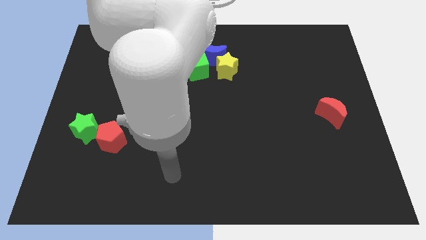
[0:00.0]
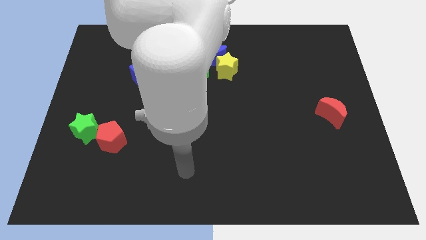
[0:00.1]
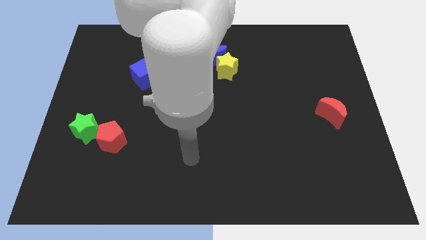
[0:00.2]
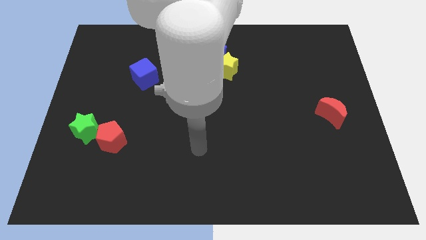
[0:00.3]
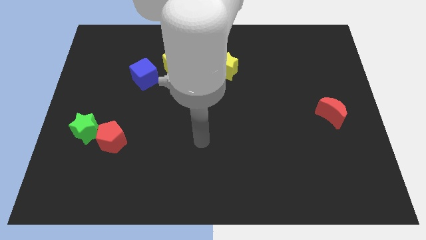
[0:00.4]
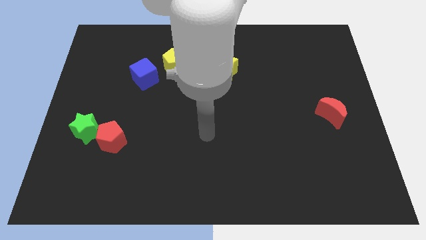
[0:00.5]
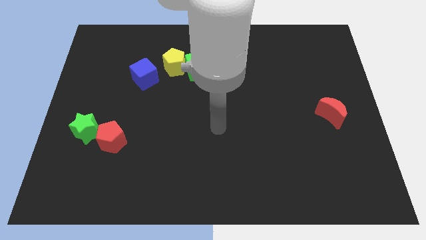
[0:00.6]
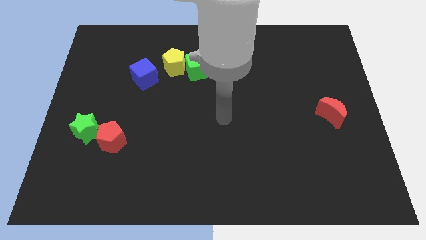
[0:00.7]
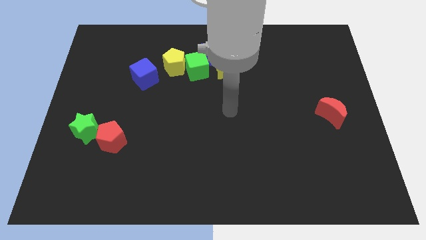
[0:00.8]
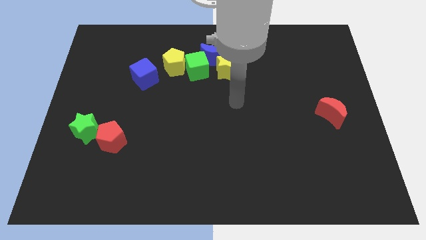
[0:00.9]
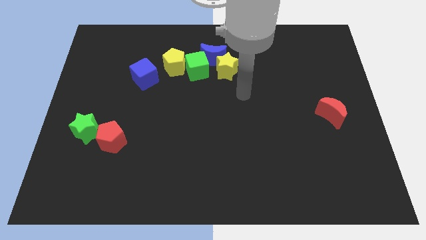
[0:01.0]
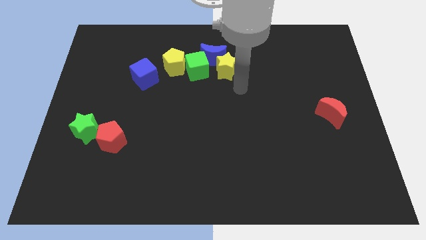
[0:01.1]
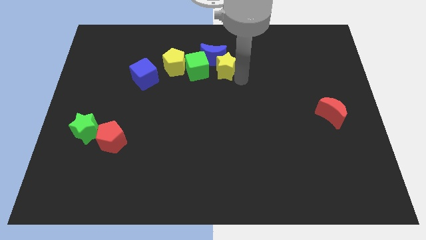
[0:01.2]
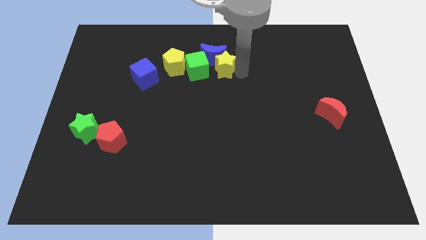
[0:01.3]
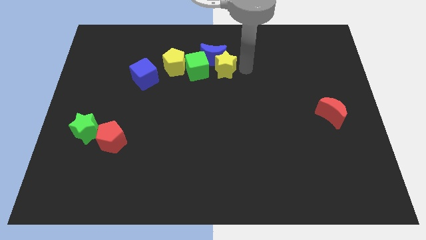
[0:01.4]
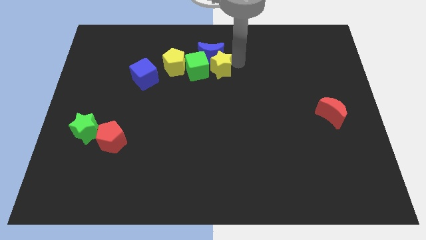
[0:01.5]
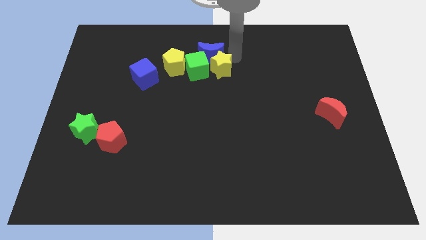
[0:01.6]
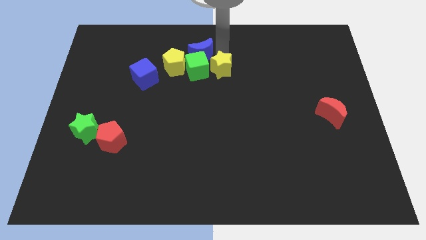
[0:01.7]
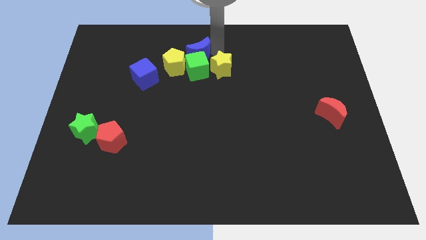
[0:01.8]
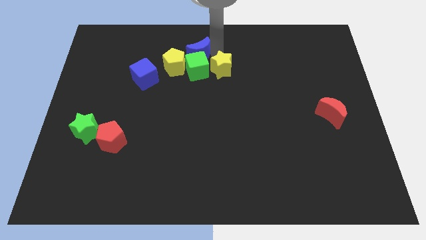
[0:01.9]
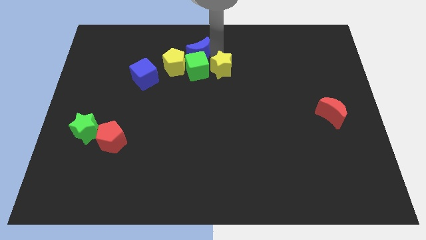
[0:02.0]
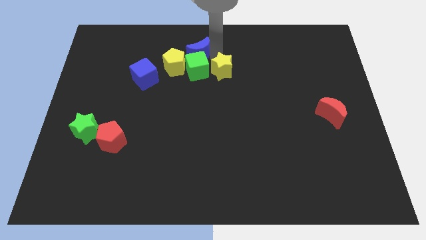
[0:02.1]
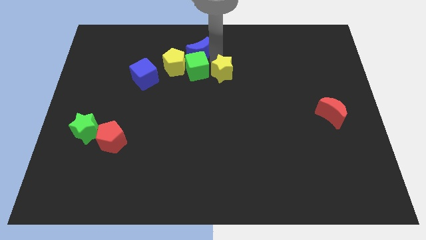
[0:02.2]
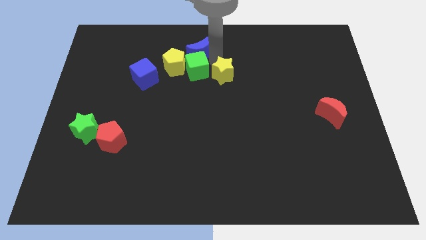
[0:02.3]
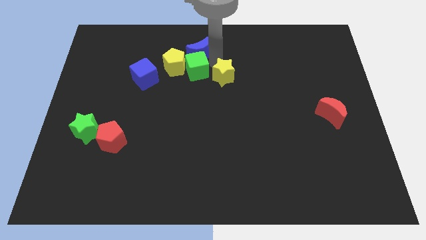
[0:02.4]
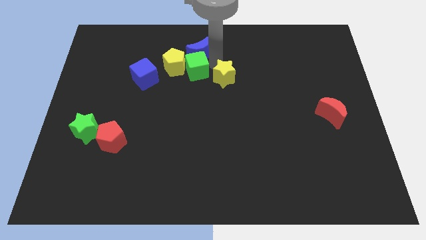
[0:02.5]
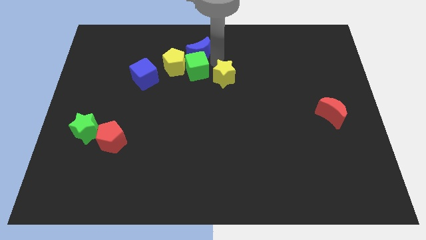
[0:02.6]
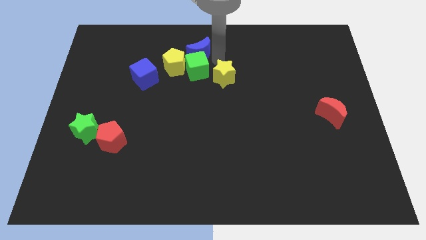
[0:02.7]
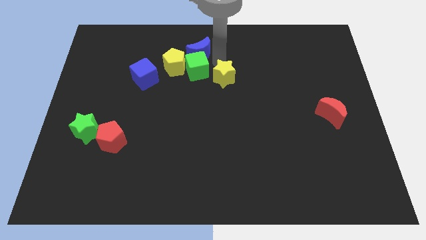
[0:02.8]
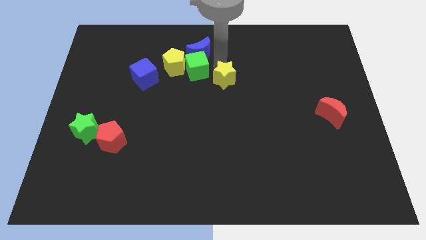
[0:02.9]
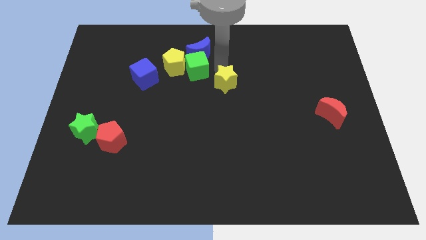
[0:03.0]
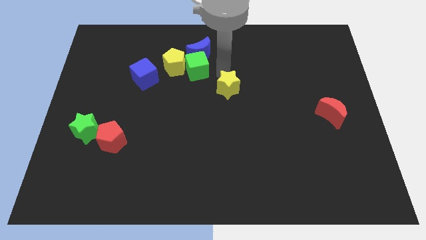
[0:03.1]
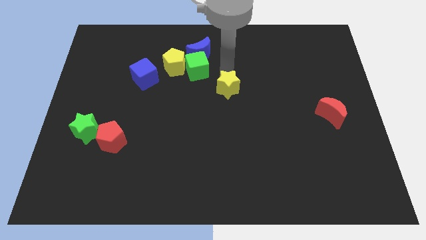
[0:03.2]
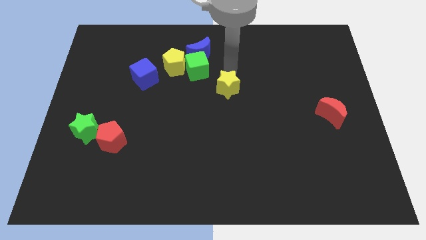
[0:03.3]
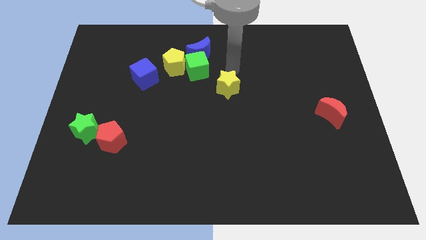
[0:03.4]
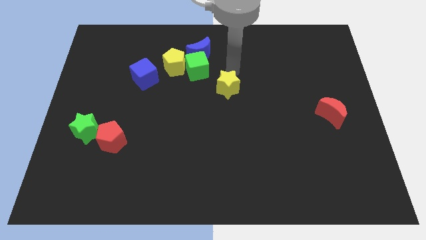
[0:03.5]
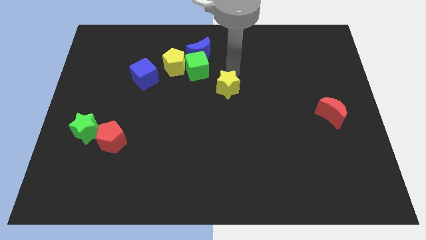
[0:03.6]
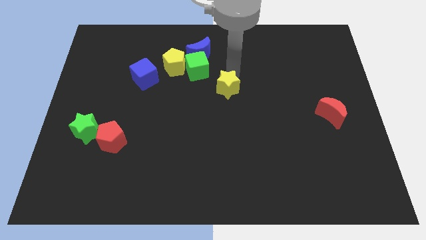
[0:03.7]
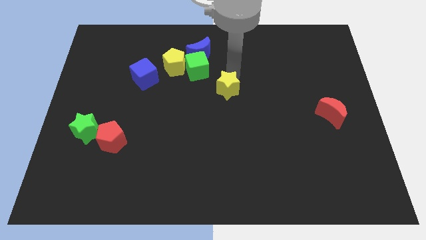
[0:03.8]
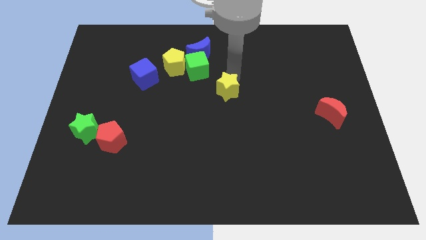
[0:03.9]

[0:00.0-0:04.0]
slightly push the yellow star downwards

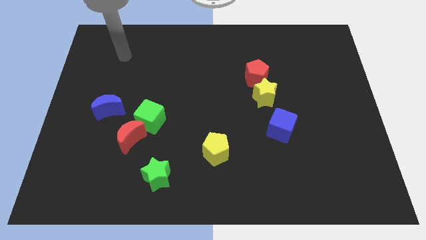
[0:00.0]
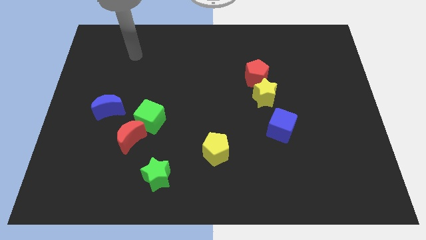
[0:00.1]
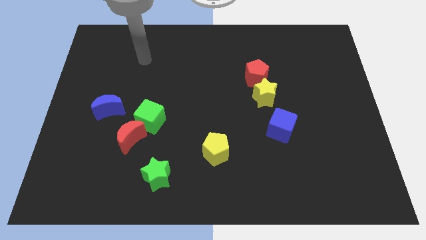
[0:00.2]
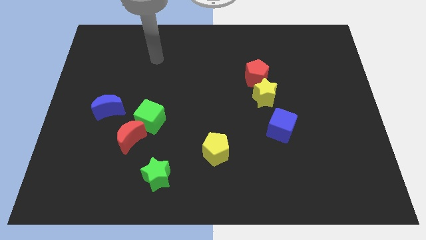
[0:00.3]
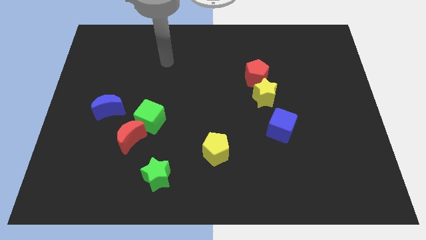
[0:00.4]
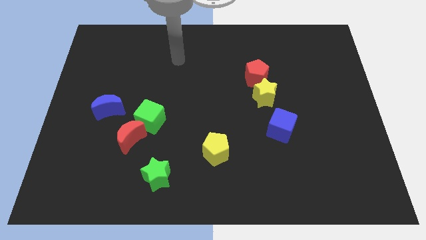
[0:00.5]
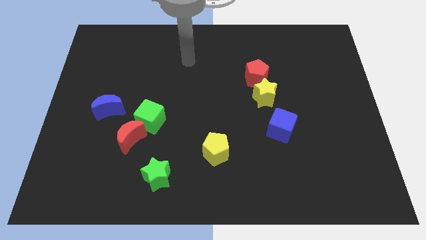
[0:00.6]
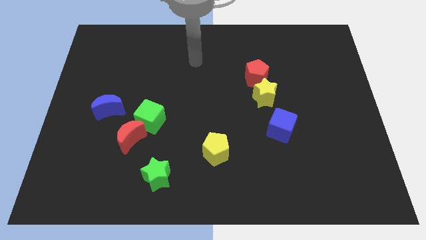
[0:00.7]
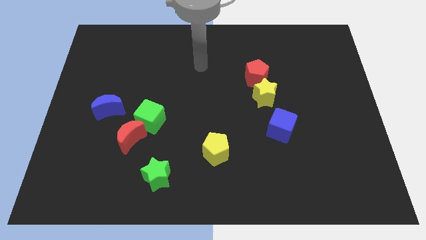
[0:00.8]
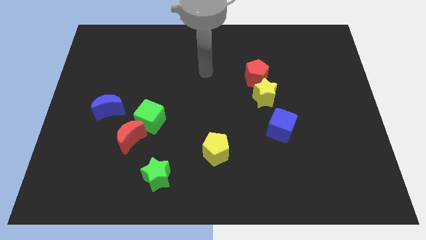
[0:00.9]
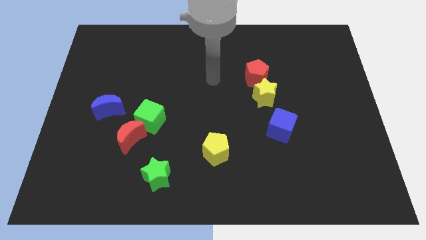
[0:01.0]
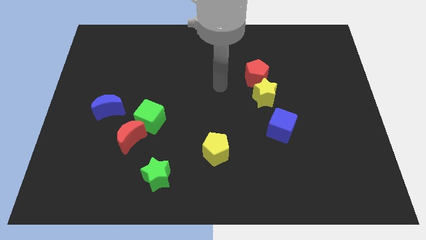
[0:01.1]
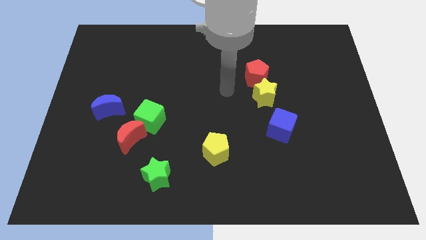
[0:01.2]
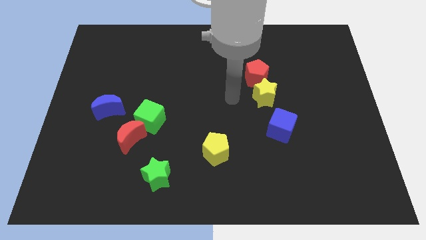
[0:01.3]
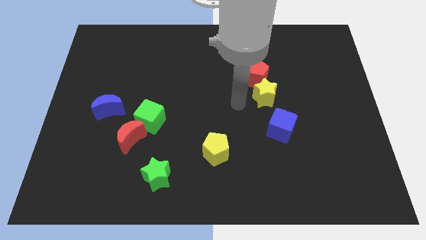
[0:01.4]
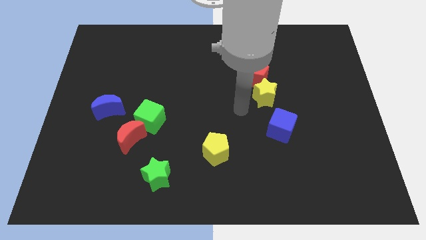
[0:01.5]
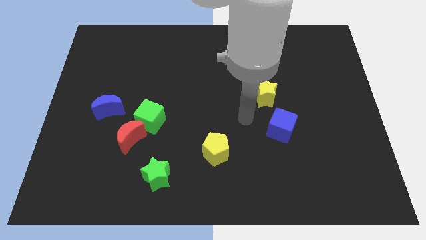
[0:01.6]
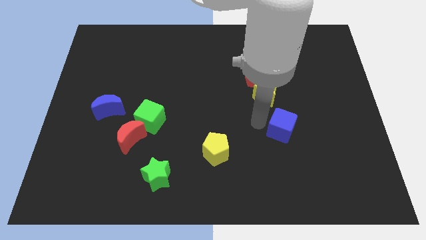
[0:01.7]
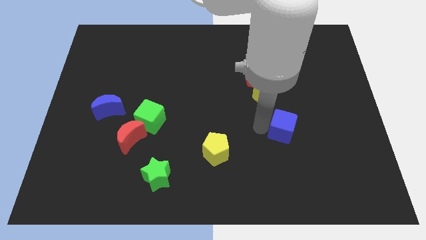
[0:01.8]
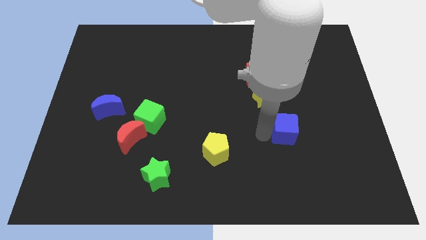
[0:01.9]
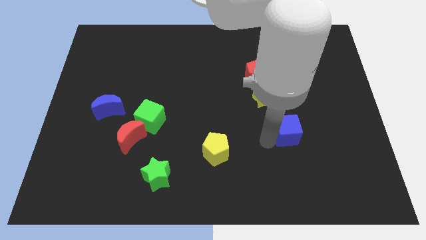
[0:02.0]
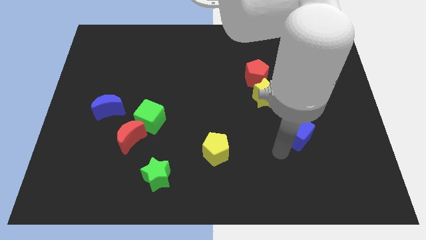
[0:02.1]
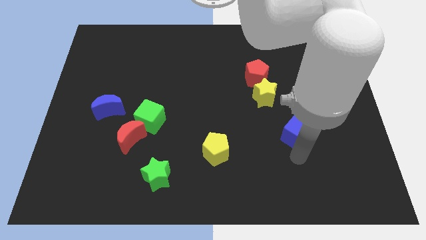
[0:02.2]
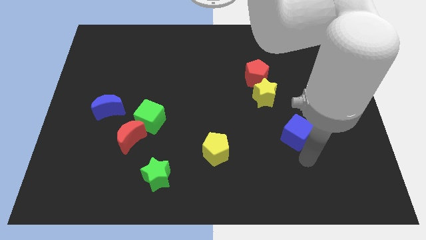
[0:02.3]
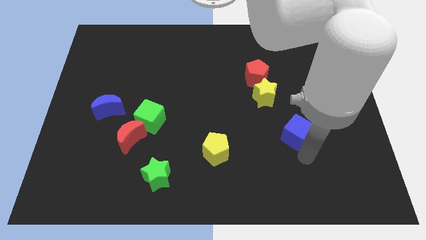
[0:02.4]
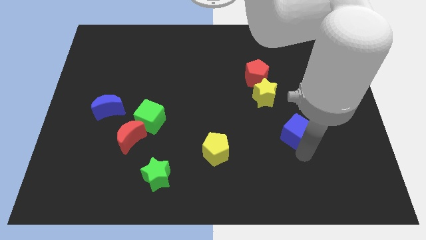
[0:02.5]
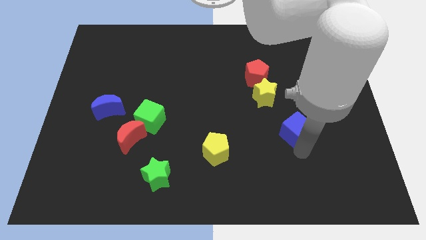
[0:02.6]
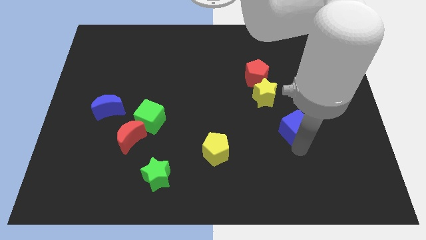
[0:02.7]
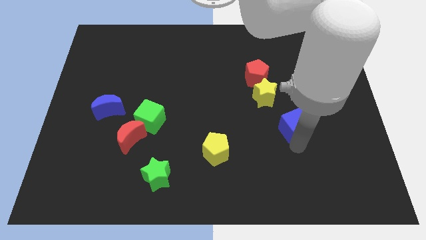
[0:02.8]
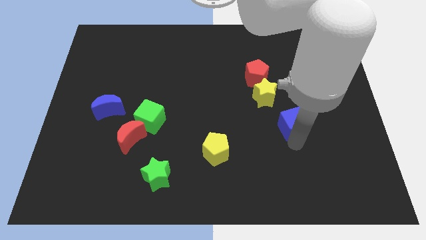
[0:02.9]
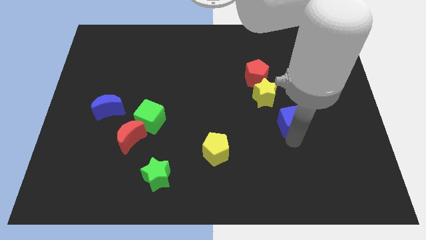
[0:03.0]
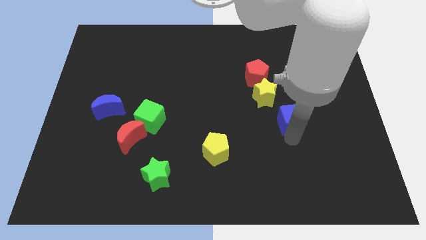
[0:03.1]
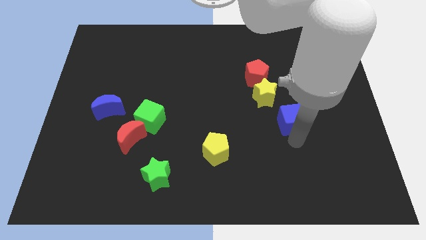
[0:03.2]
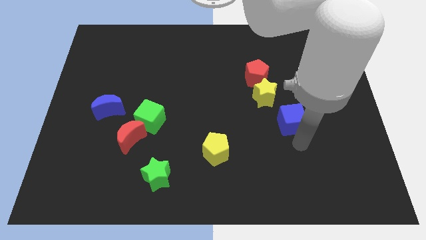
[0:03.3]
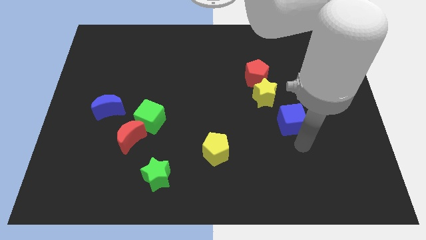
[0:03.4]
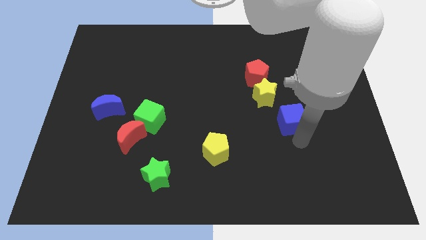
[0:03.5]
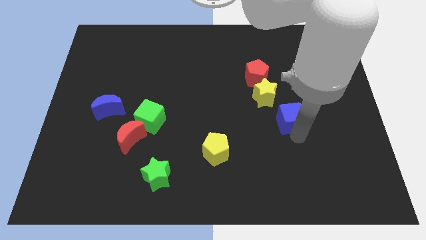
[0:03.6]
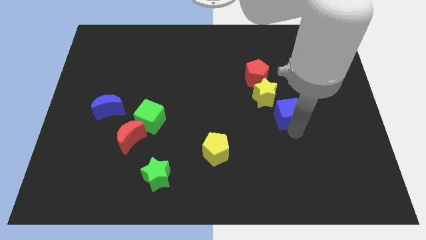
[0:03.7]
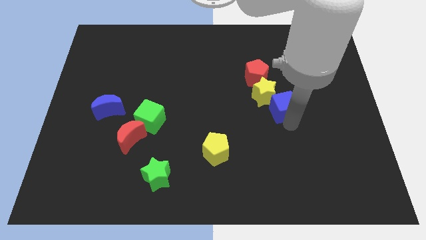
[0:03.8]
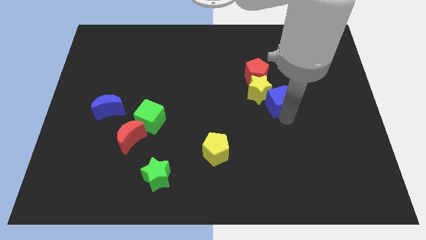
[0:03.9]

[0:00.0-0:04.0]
push the blue cube a little up

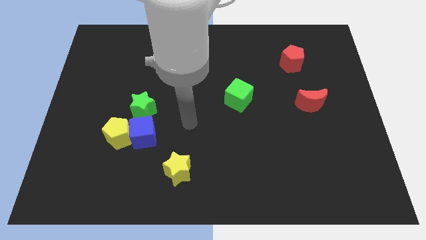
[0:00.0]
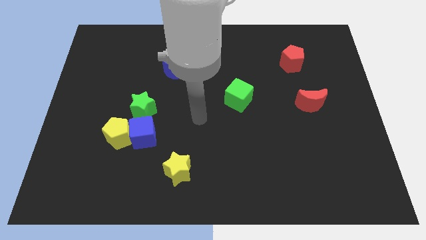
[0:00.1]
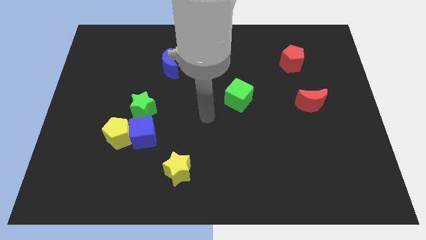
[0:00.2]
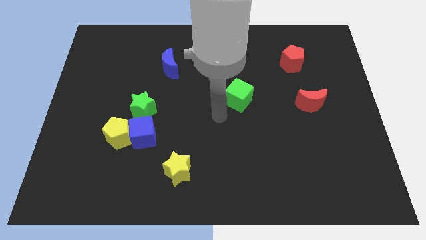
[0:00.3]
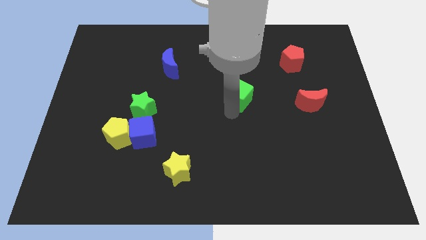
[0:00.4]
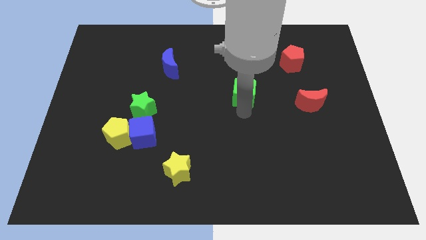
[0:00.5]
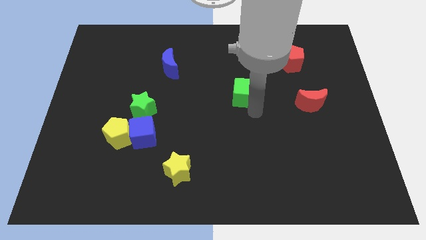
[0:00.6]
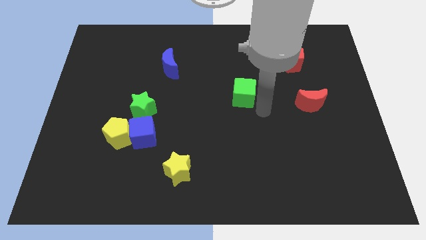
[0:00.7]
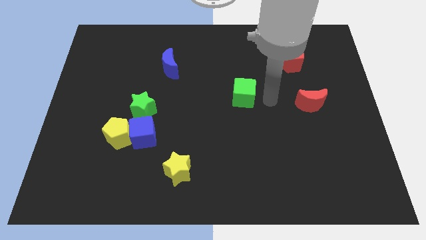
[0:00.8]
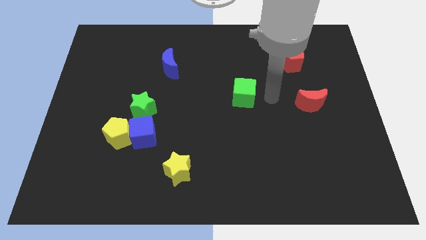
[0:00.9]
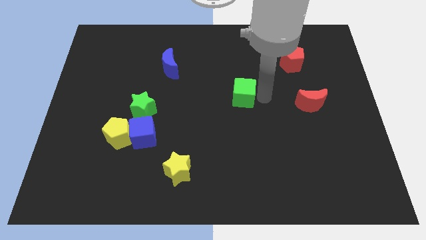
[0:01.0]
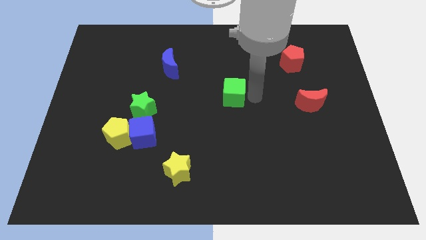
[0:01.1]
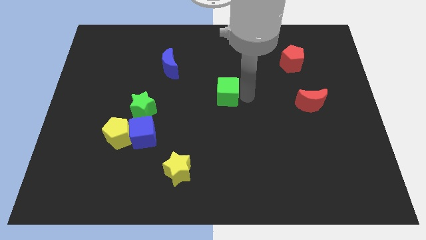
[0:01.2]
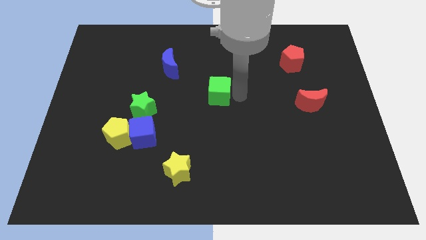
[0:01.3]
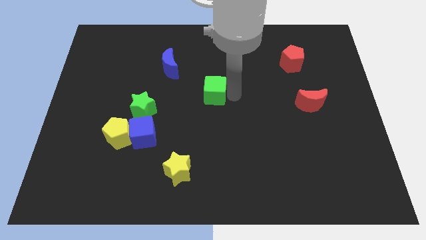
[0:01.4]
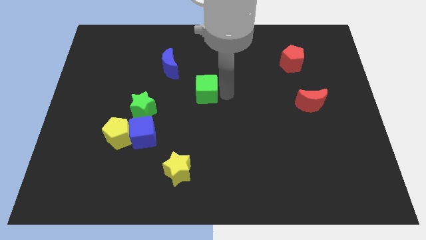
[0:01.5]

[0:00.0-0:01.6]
slightly move the green cube to the left
